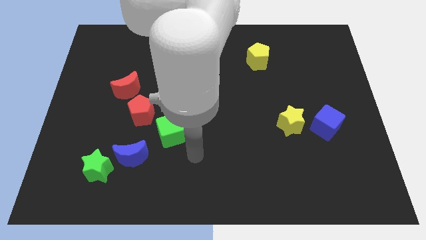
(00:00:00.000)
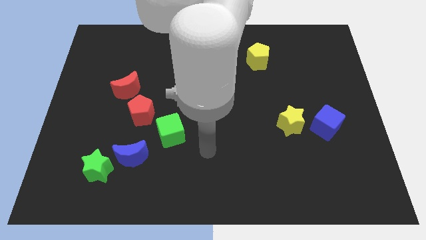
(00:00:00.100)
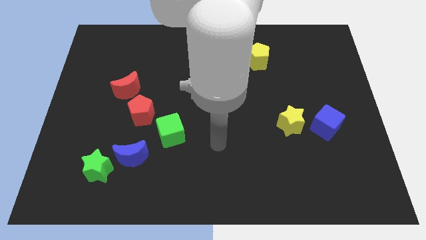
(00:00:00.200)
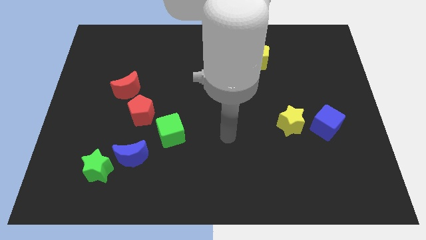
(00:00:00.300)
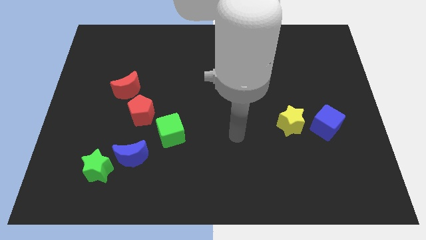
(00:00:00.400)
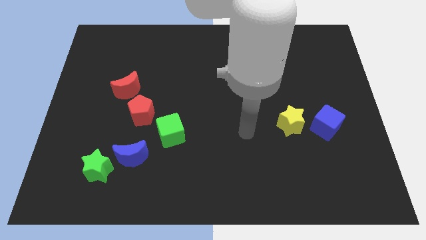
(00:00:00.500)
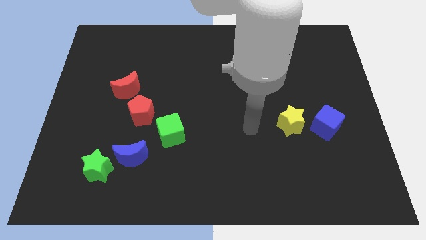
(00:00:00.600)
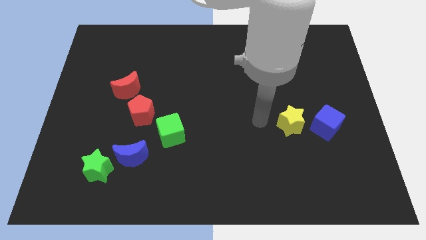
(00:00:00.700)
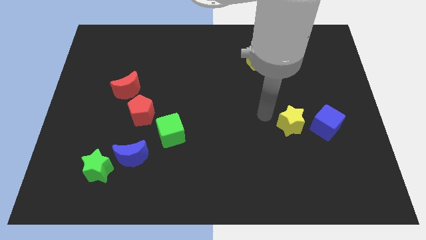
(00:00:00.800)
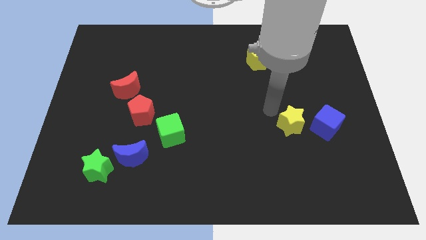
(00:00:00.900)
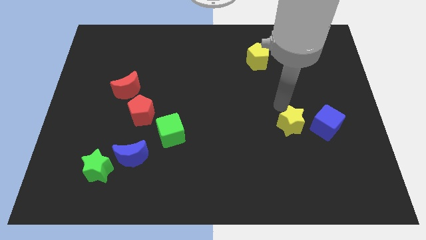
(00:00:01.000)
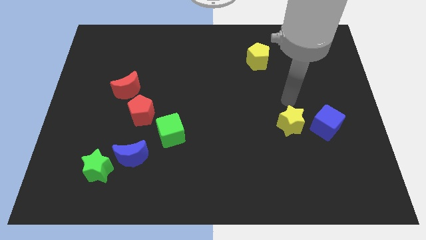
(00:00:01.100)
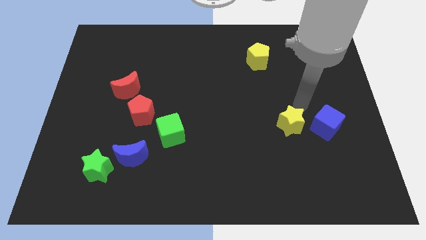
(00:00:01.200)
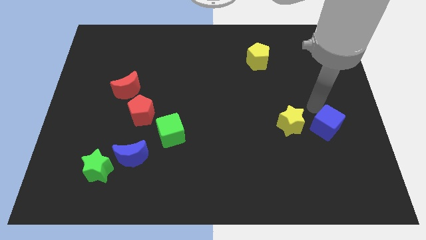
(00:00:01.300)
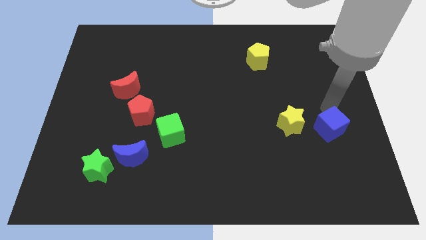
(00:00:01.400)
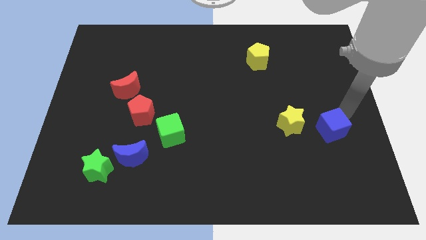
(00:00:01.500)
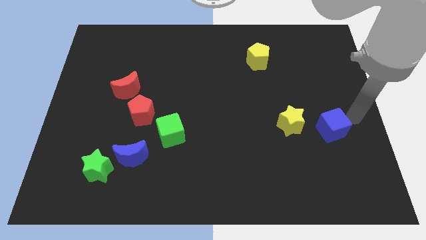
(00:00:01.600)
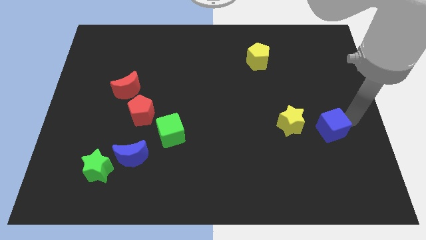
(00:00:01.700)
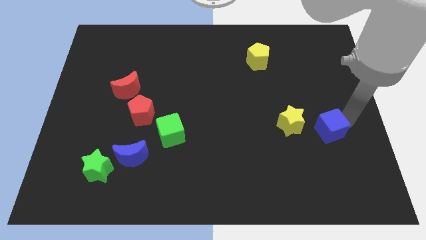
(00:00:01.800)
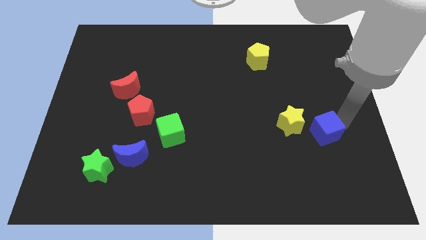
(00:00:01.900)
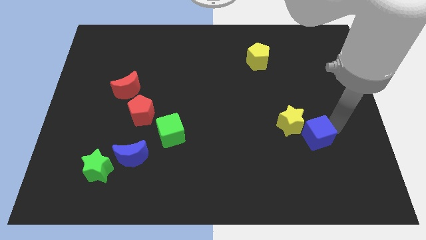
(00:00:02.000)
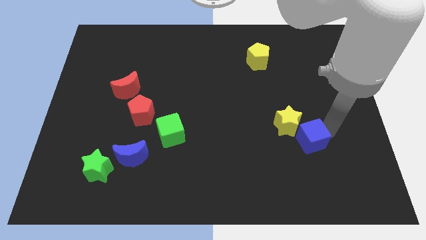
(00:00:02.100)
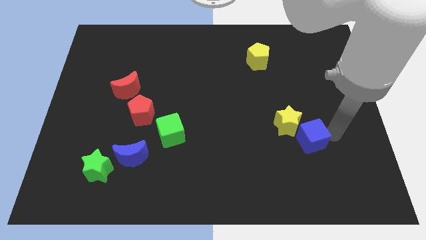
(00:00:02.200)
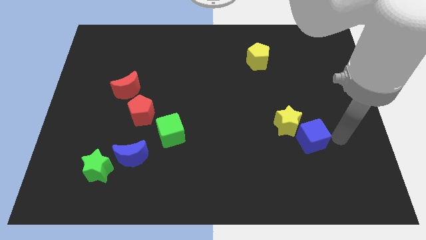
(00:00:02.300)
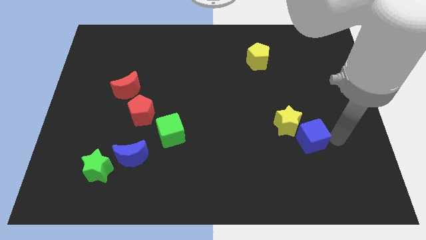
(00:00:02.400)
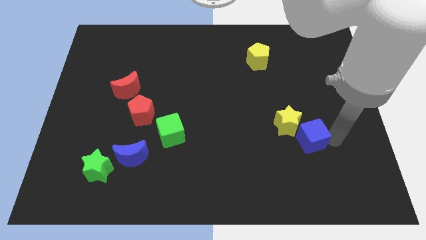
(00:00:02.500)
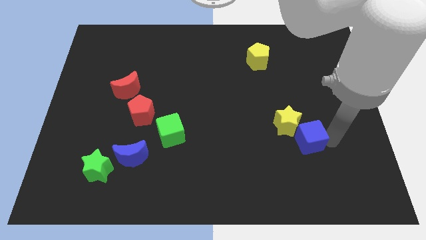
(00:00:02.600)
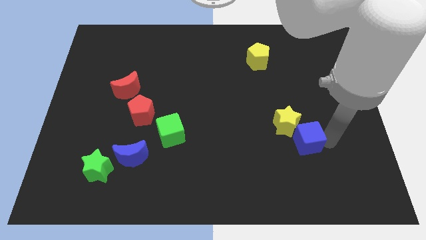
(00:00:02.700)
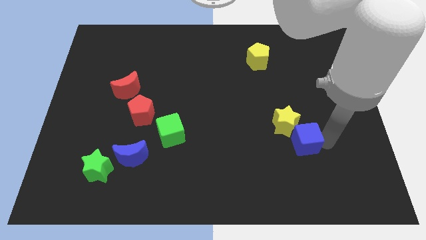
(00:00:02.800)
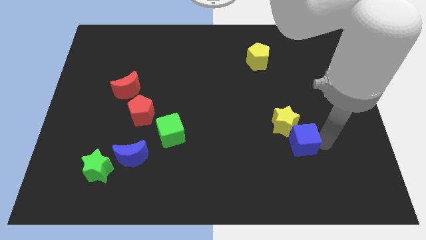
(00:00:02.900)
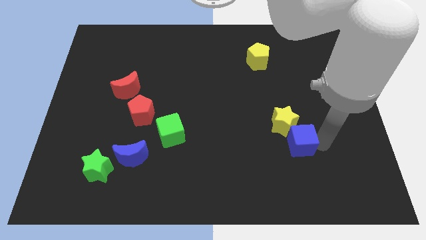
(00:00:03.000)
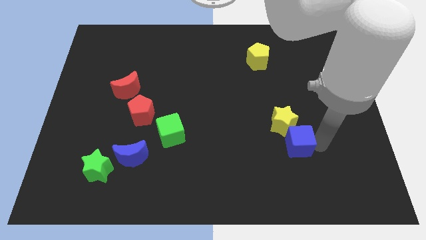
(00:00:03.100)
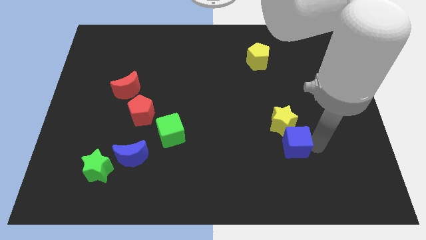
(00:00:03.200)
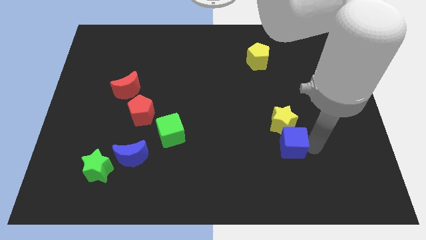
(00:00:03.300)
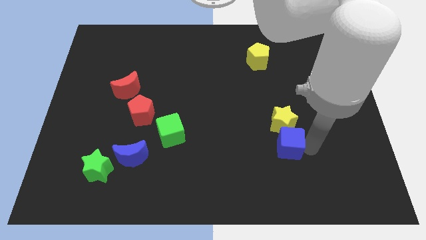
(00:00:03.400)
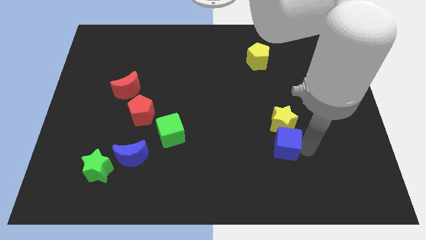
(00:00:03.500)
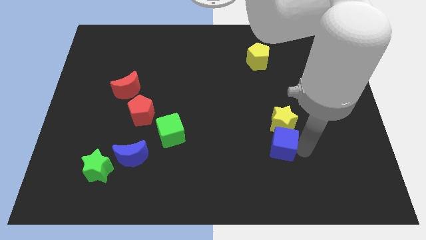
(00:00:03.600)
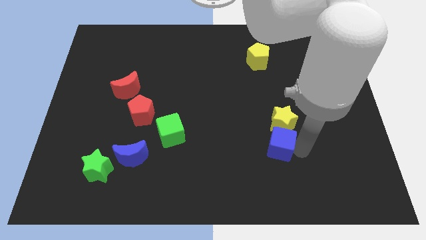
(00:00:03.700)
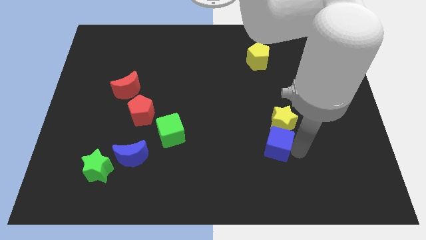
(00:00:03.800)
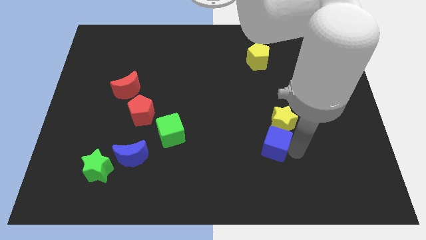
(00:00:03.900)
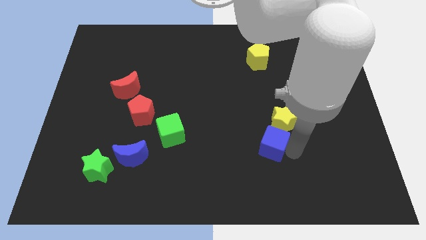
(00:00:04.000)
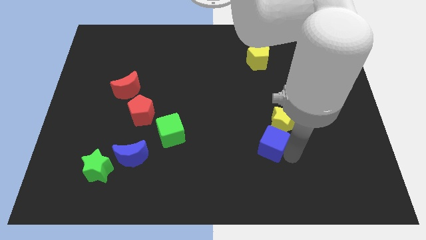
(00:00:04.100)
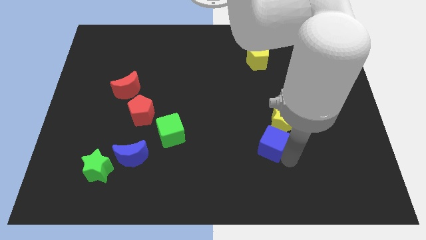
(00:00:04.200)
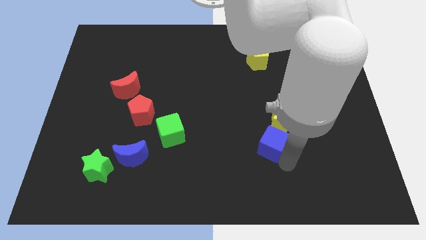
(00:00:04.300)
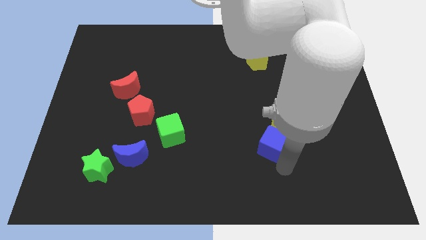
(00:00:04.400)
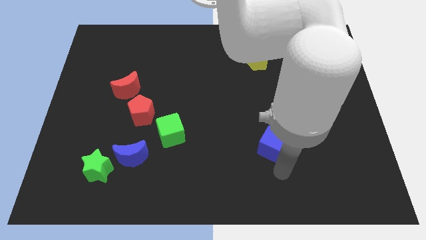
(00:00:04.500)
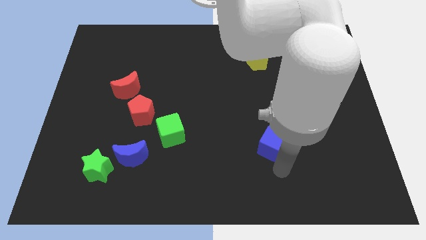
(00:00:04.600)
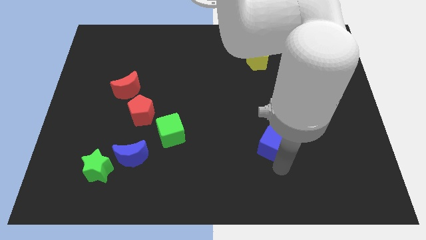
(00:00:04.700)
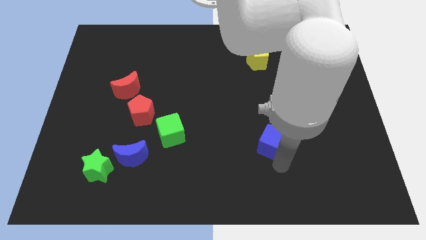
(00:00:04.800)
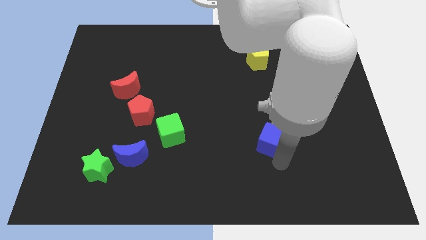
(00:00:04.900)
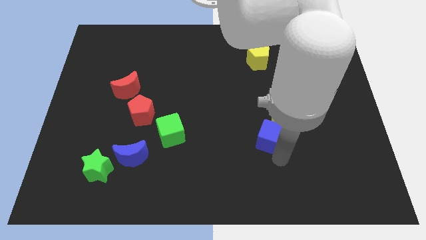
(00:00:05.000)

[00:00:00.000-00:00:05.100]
push the blue cube to the left side of the yellow star

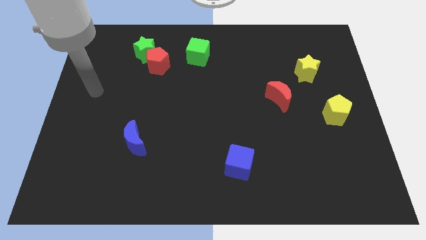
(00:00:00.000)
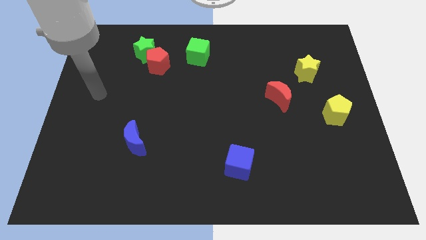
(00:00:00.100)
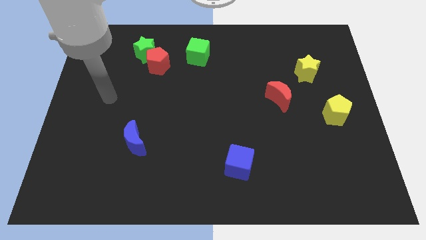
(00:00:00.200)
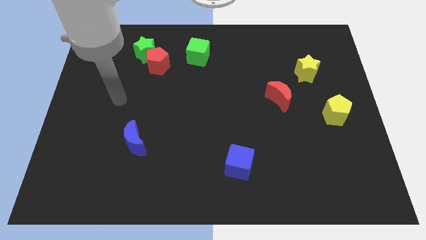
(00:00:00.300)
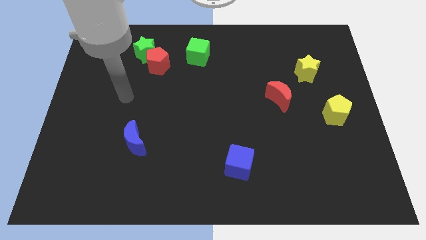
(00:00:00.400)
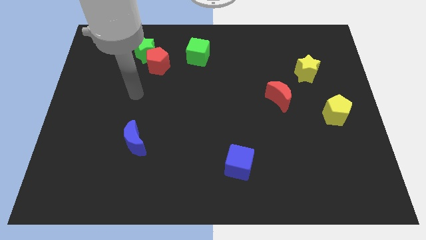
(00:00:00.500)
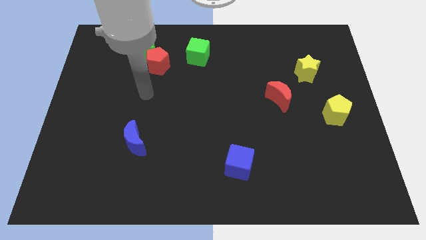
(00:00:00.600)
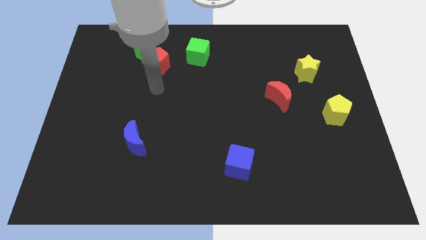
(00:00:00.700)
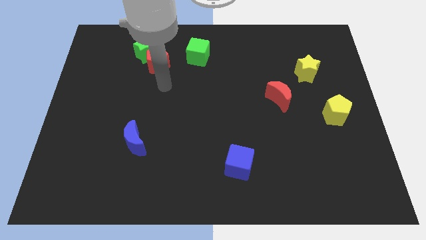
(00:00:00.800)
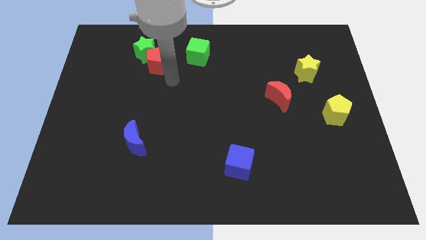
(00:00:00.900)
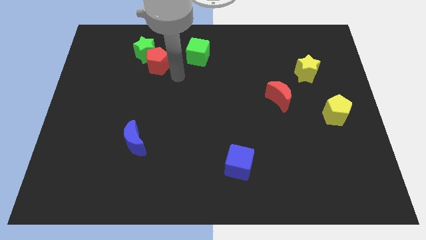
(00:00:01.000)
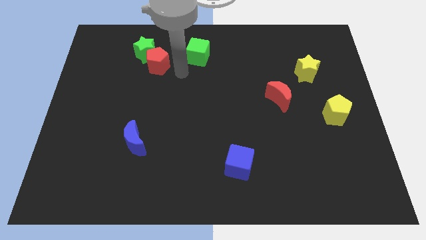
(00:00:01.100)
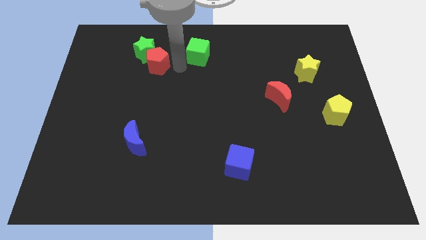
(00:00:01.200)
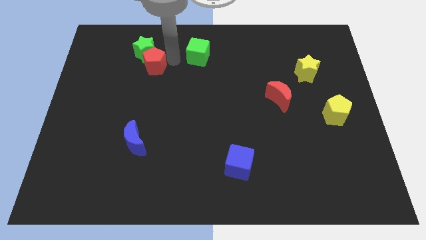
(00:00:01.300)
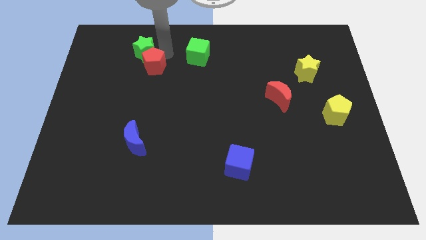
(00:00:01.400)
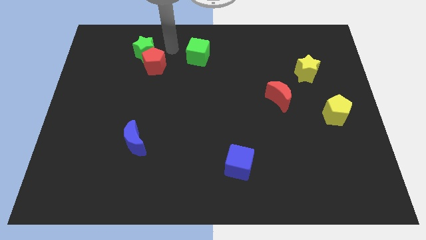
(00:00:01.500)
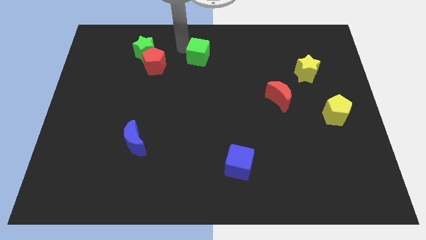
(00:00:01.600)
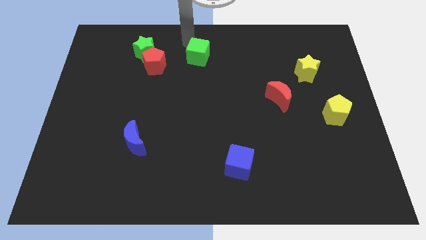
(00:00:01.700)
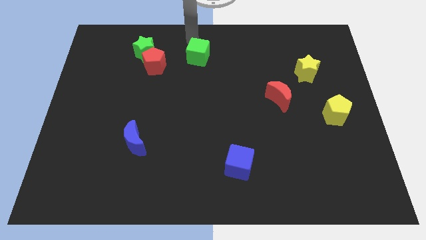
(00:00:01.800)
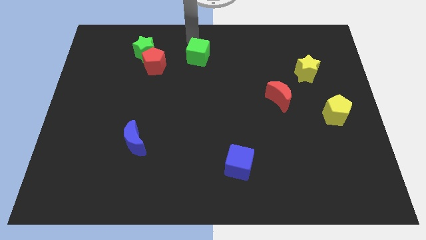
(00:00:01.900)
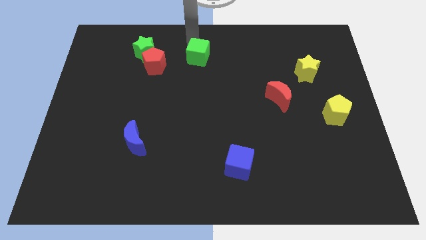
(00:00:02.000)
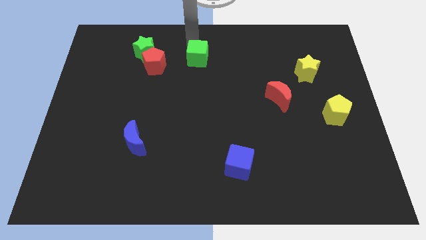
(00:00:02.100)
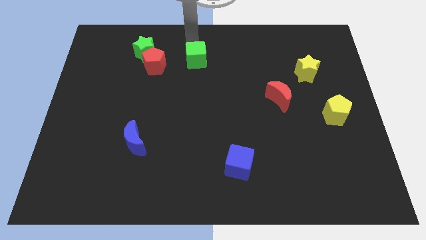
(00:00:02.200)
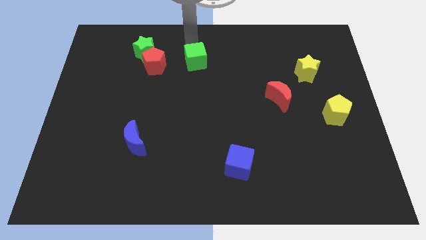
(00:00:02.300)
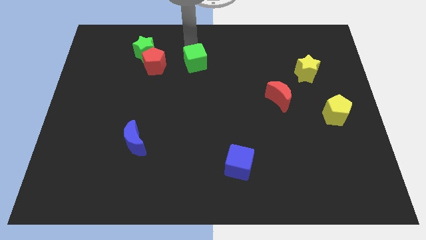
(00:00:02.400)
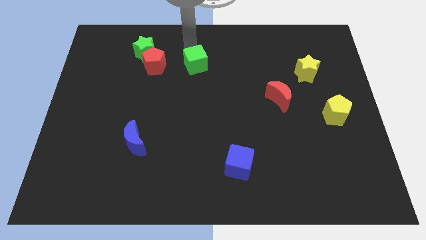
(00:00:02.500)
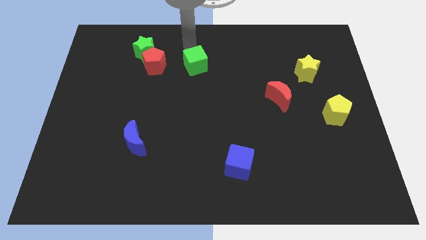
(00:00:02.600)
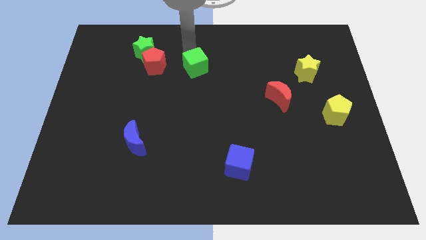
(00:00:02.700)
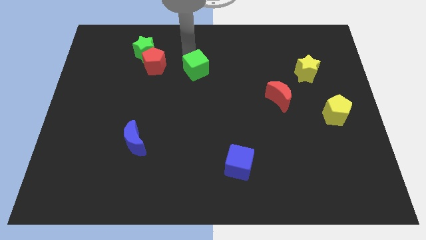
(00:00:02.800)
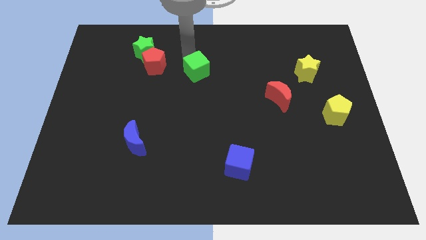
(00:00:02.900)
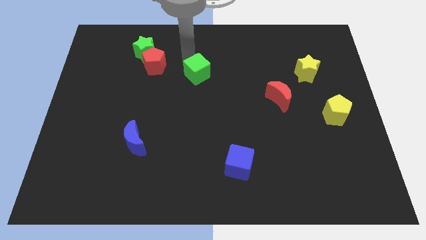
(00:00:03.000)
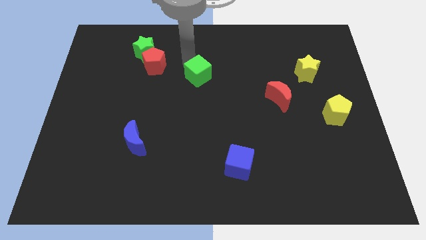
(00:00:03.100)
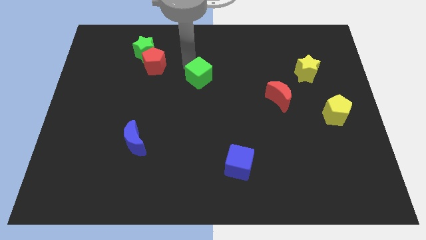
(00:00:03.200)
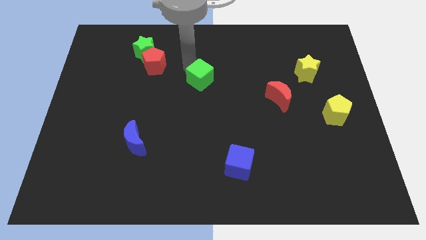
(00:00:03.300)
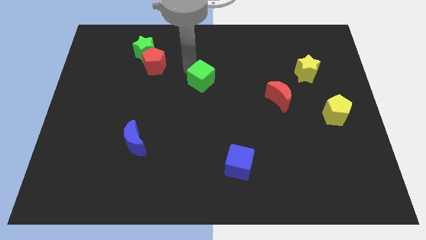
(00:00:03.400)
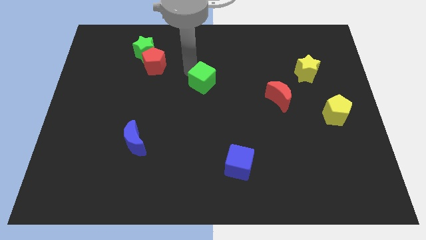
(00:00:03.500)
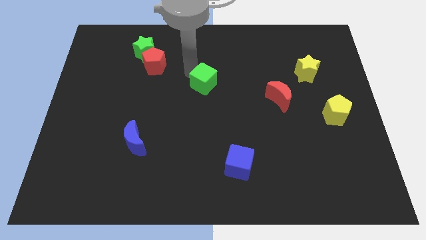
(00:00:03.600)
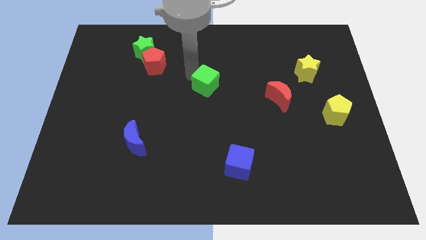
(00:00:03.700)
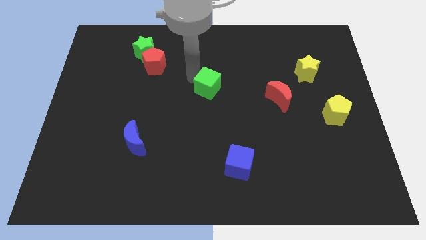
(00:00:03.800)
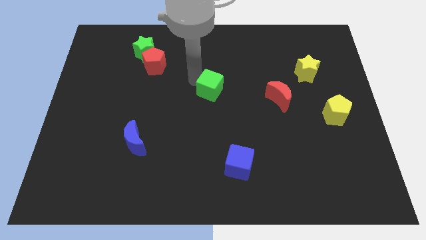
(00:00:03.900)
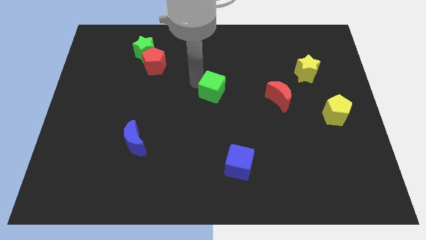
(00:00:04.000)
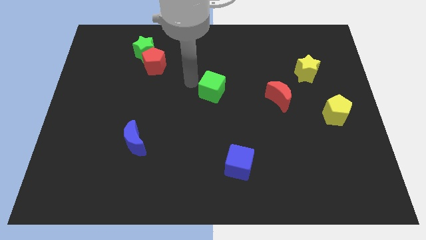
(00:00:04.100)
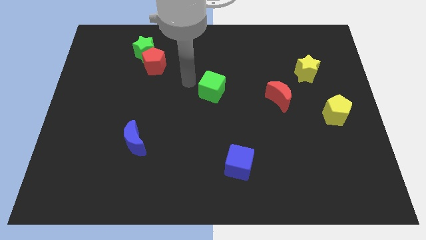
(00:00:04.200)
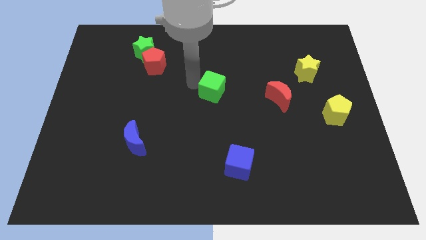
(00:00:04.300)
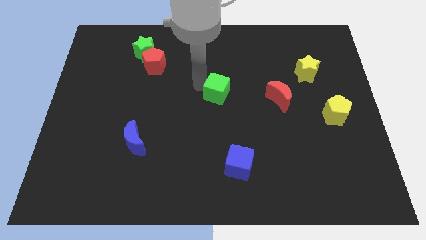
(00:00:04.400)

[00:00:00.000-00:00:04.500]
move the green cube to the left of the red moon
